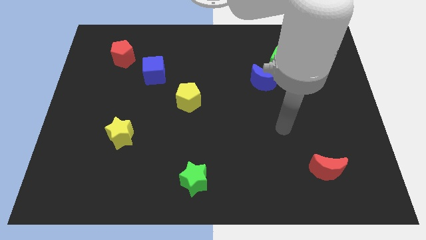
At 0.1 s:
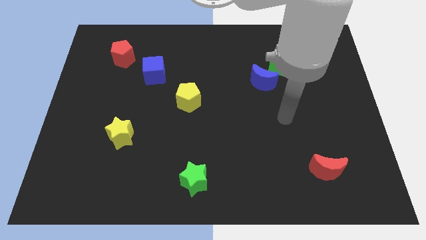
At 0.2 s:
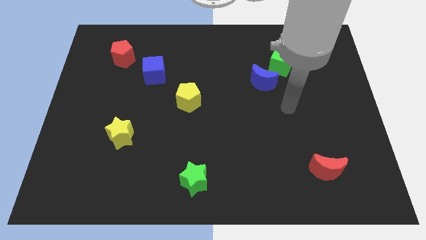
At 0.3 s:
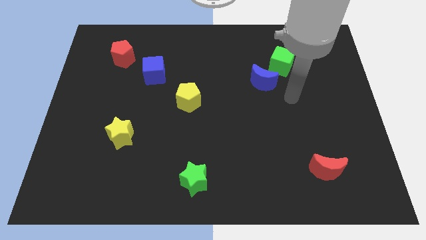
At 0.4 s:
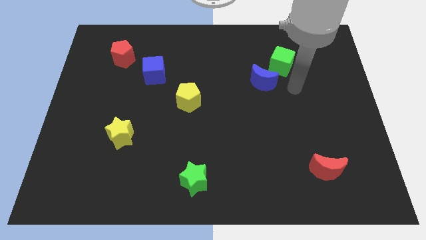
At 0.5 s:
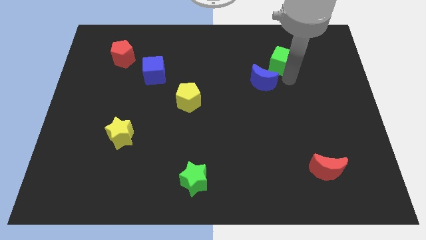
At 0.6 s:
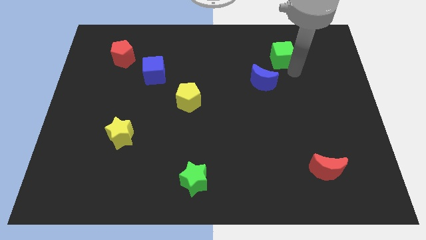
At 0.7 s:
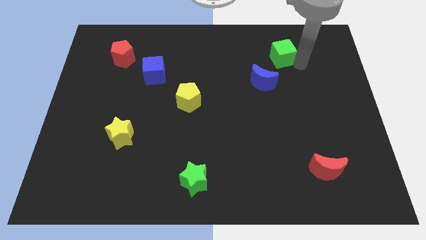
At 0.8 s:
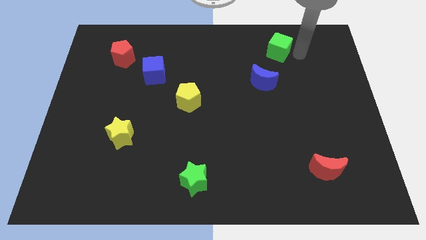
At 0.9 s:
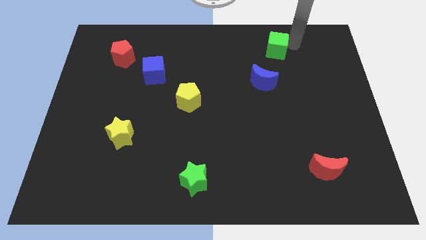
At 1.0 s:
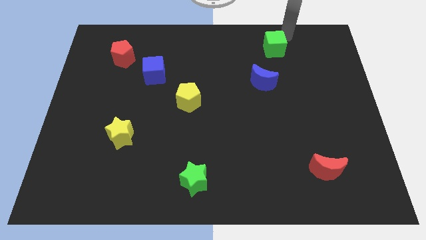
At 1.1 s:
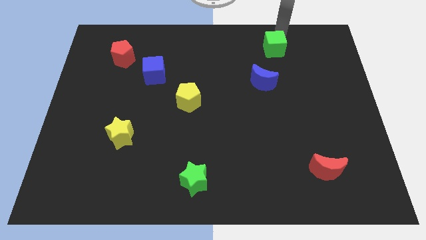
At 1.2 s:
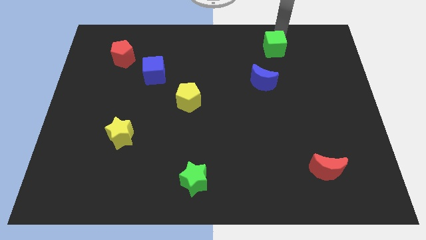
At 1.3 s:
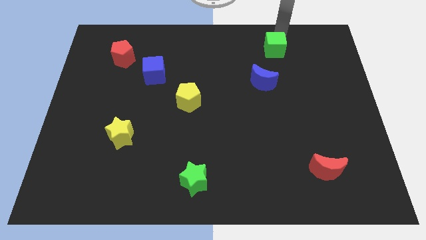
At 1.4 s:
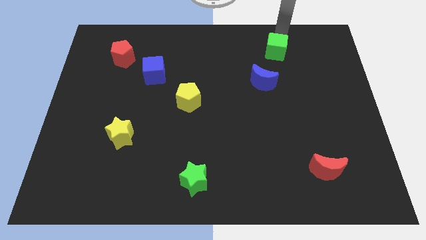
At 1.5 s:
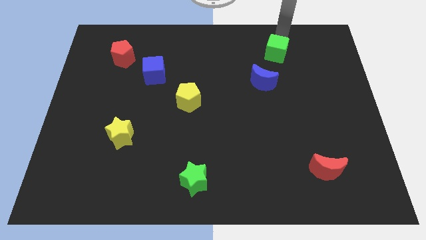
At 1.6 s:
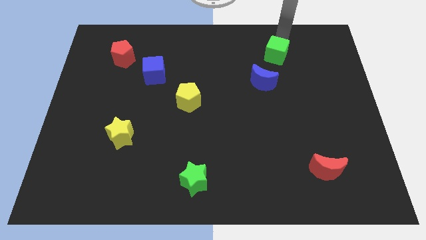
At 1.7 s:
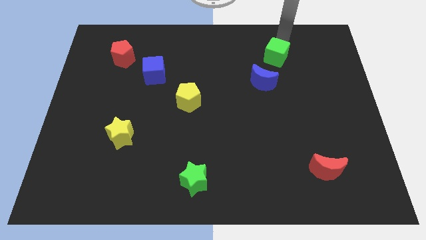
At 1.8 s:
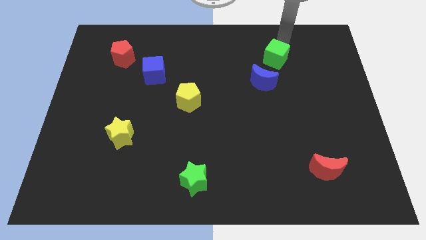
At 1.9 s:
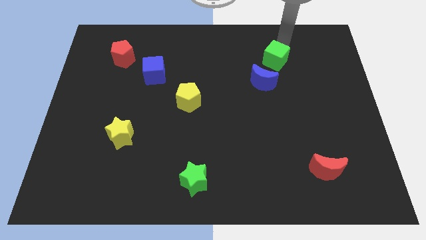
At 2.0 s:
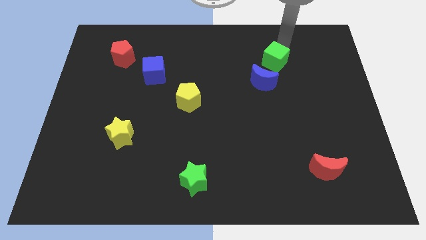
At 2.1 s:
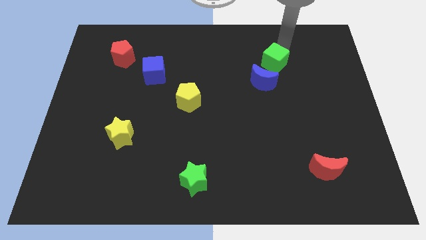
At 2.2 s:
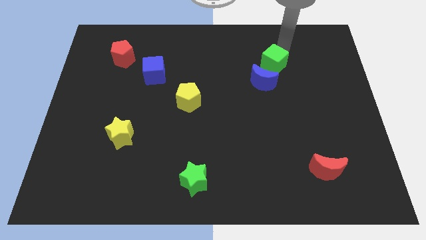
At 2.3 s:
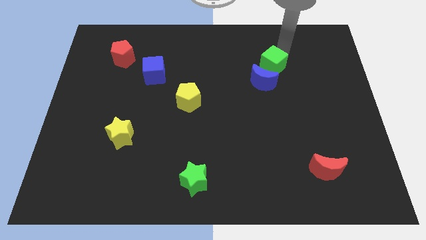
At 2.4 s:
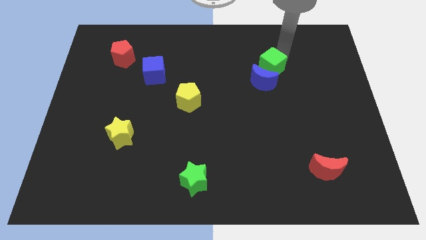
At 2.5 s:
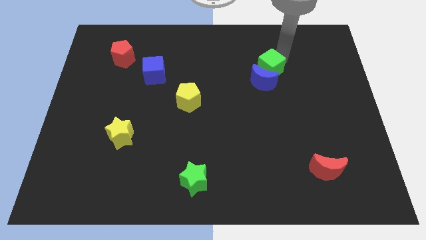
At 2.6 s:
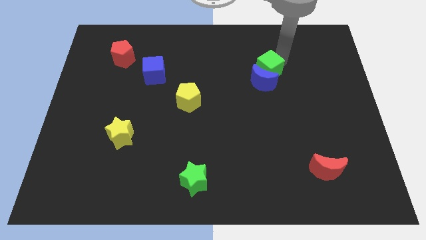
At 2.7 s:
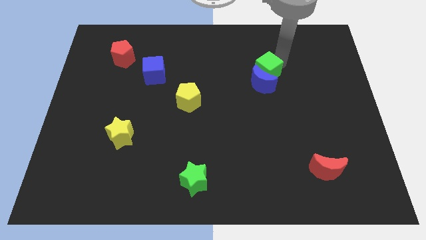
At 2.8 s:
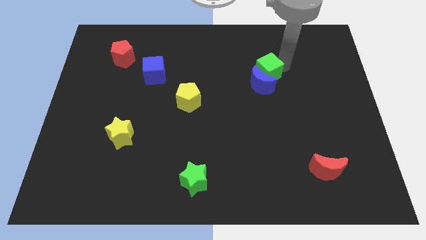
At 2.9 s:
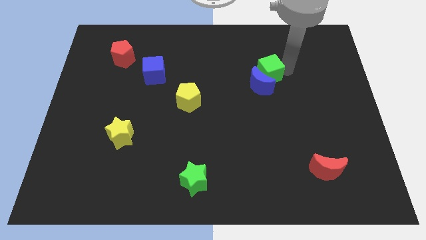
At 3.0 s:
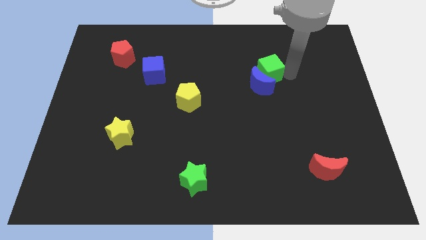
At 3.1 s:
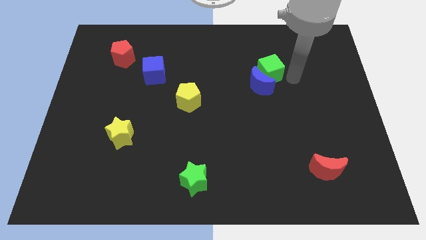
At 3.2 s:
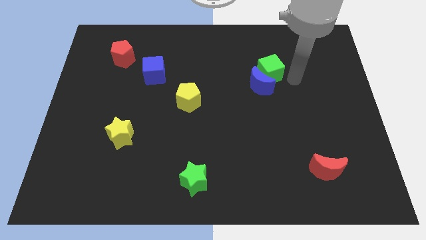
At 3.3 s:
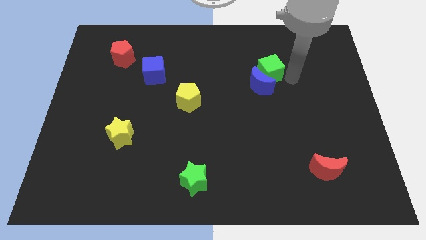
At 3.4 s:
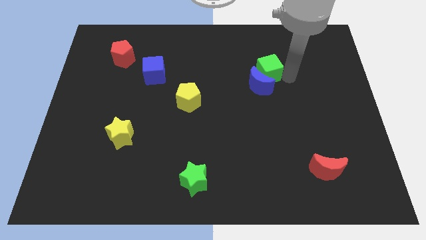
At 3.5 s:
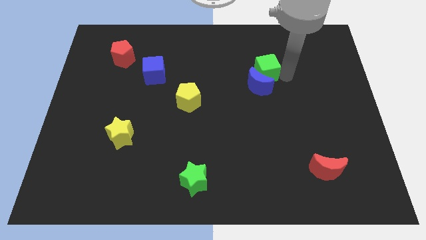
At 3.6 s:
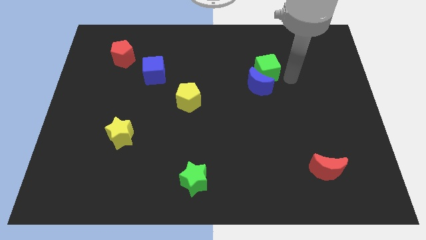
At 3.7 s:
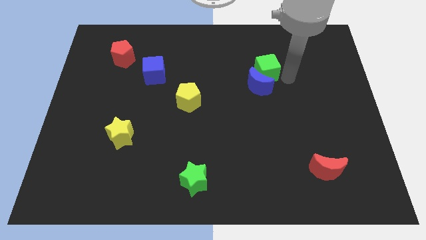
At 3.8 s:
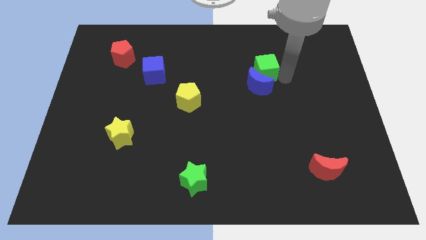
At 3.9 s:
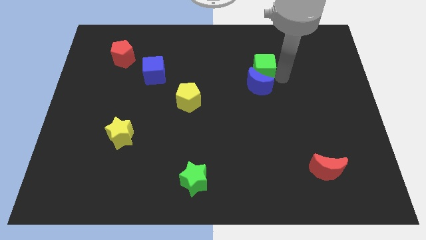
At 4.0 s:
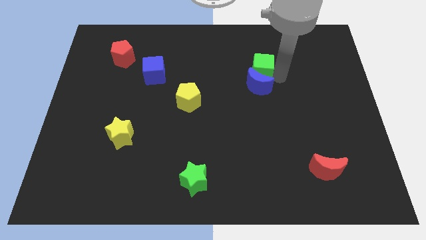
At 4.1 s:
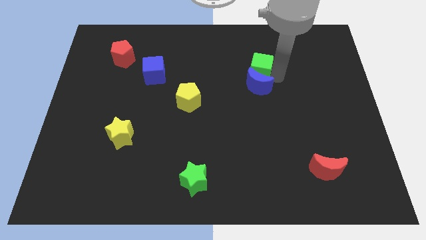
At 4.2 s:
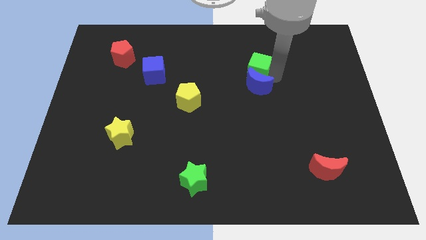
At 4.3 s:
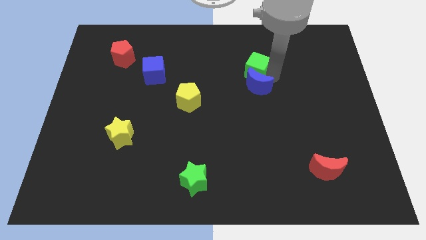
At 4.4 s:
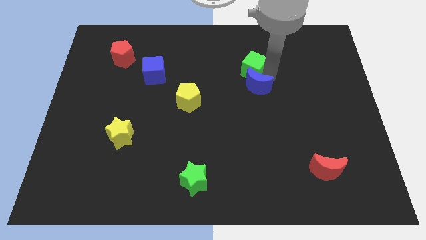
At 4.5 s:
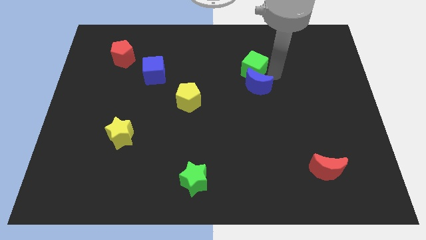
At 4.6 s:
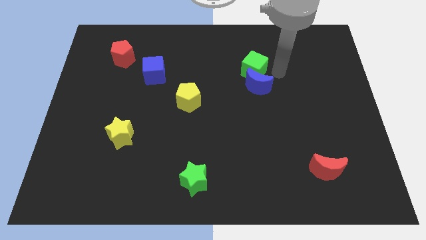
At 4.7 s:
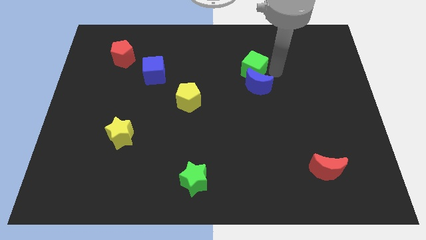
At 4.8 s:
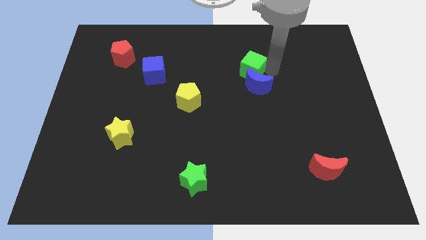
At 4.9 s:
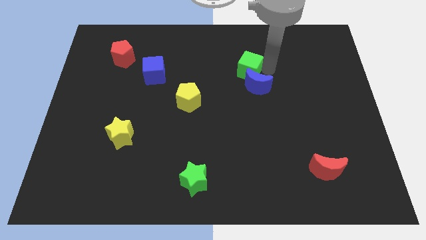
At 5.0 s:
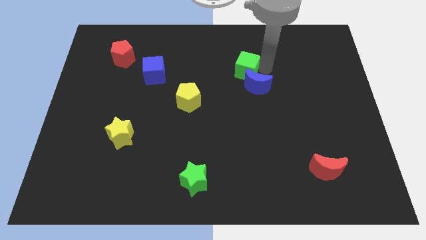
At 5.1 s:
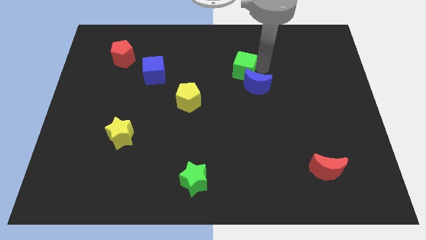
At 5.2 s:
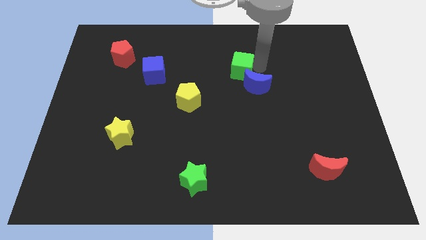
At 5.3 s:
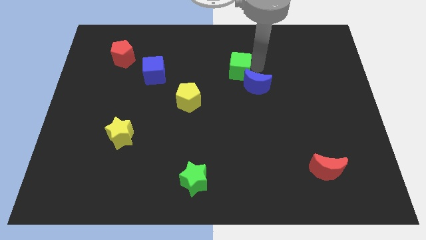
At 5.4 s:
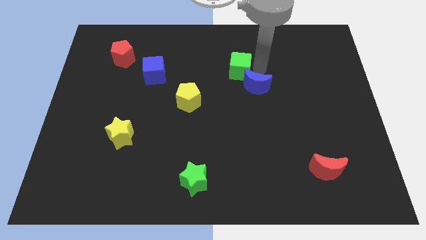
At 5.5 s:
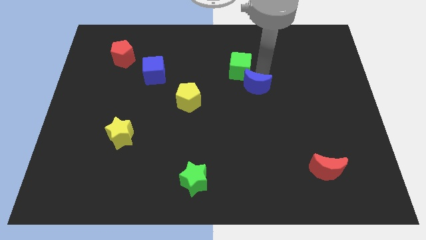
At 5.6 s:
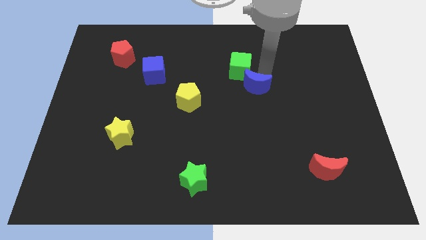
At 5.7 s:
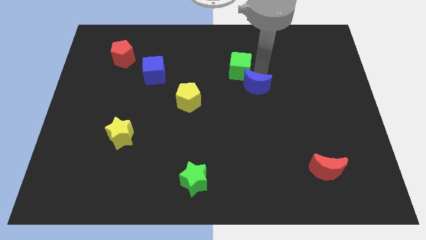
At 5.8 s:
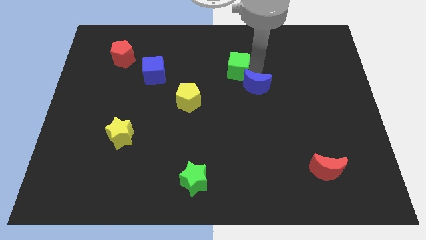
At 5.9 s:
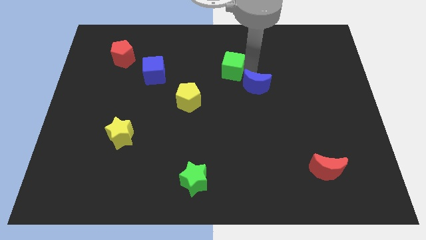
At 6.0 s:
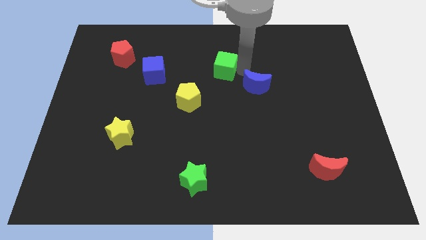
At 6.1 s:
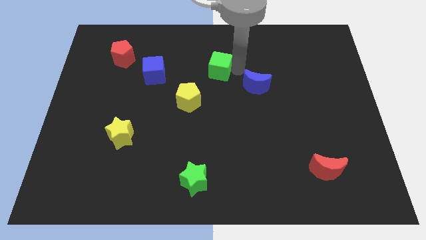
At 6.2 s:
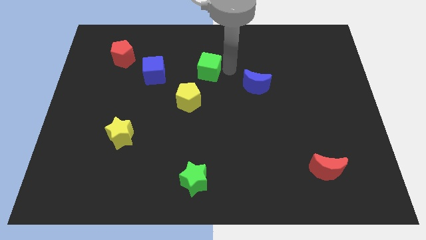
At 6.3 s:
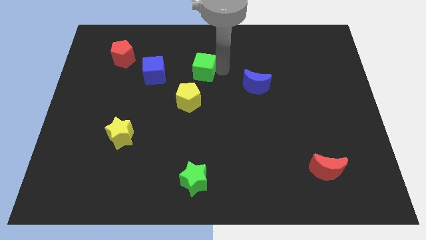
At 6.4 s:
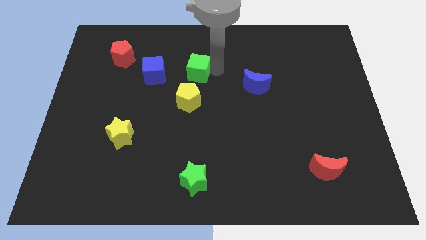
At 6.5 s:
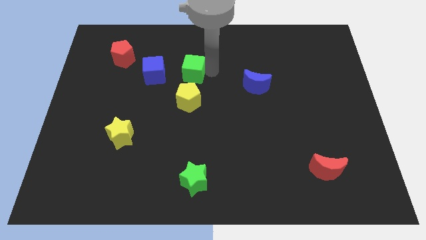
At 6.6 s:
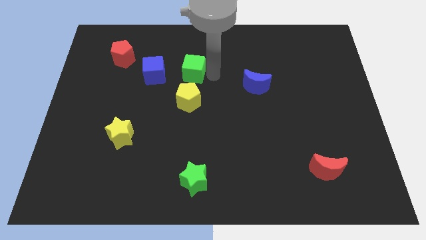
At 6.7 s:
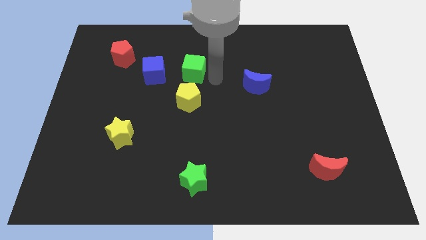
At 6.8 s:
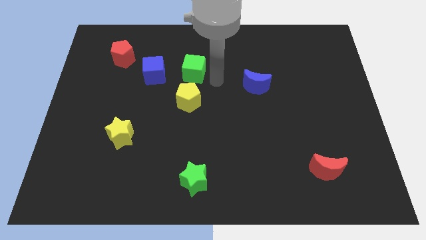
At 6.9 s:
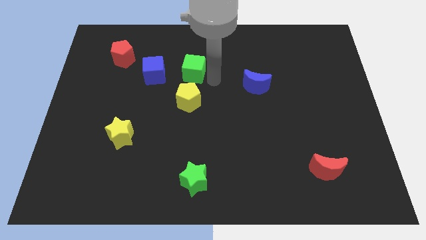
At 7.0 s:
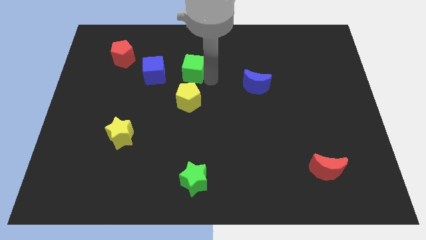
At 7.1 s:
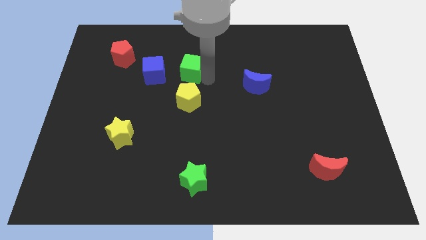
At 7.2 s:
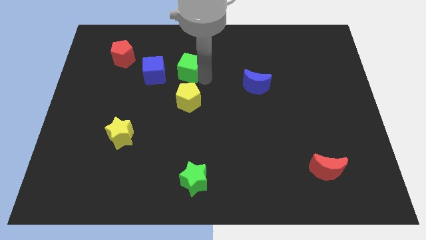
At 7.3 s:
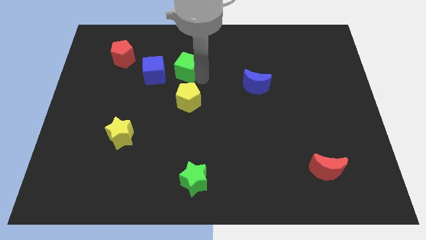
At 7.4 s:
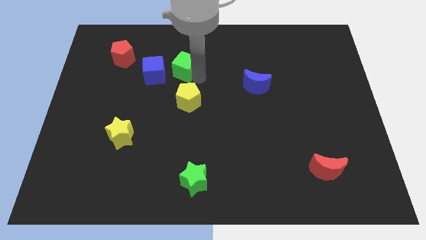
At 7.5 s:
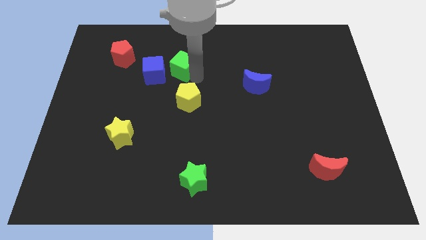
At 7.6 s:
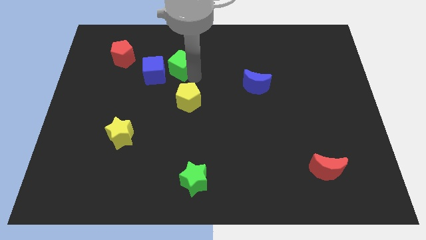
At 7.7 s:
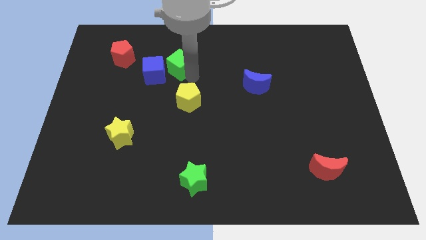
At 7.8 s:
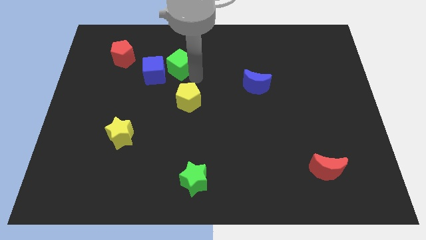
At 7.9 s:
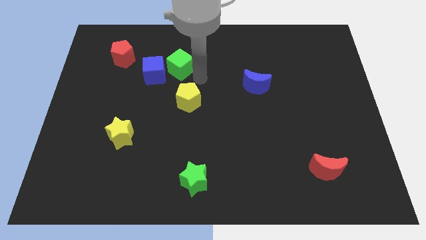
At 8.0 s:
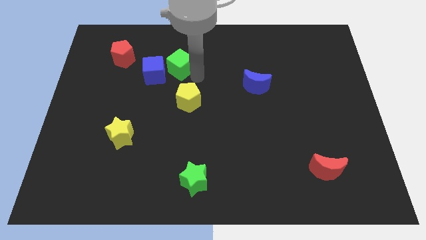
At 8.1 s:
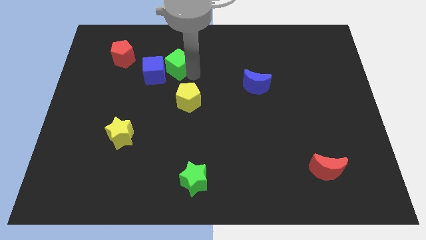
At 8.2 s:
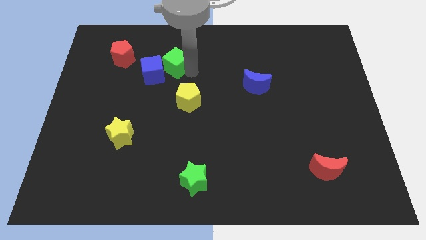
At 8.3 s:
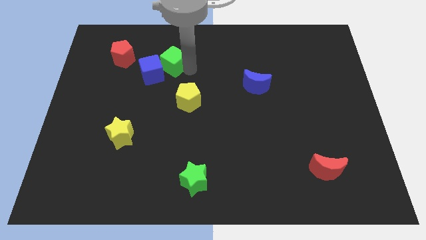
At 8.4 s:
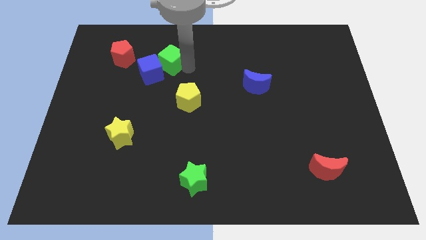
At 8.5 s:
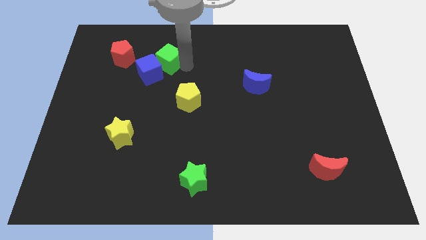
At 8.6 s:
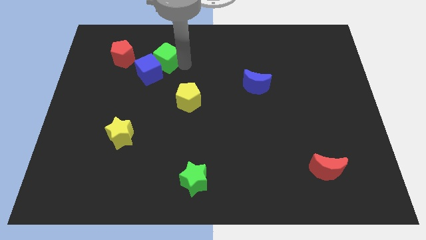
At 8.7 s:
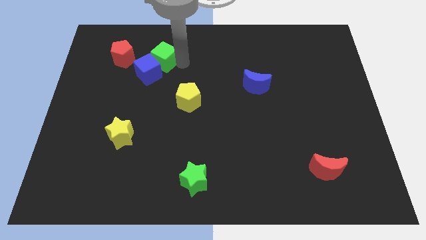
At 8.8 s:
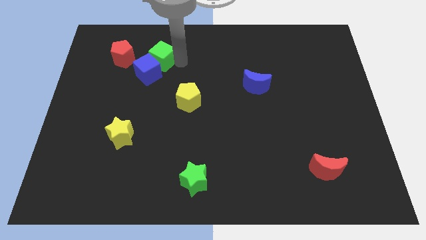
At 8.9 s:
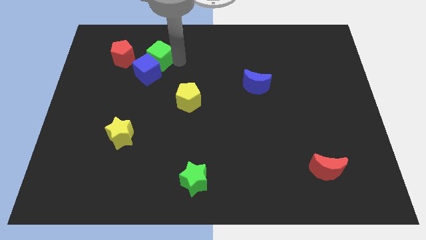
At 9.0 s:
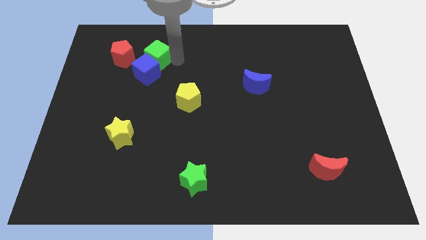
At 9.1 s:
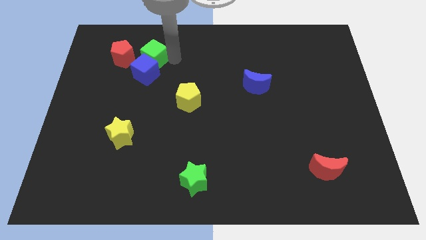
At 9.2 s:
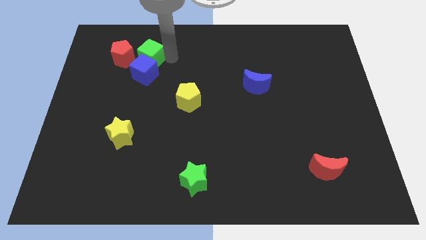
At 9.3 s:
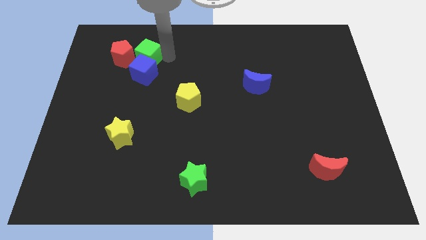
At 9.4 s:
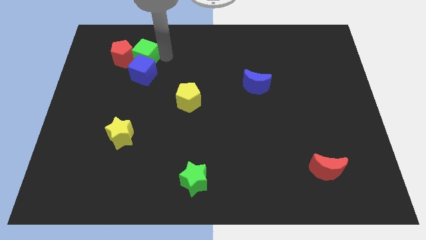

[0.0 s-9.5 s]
slide the green cube next to the red pentagon
